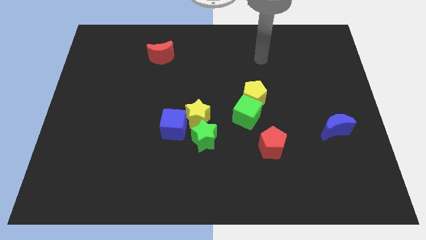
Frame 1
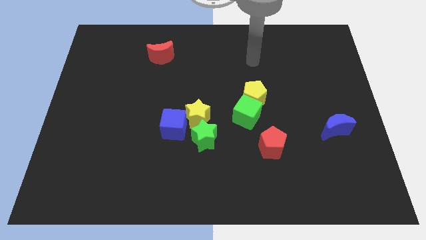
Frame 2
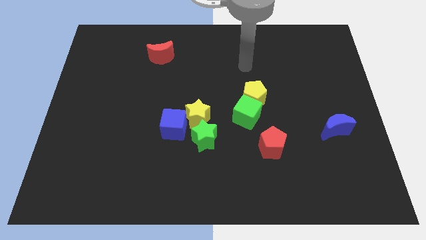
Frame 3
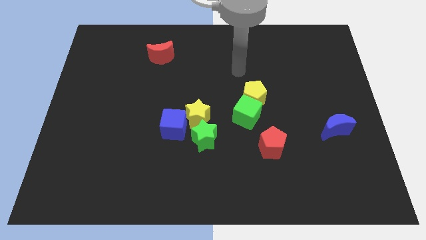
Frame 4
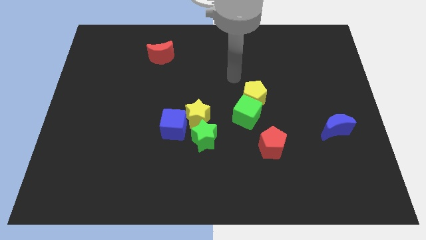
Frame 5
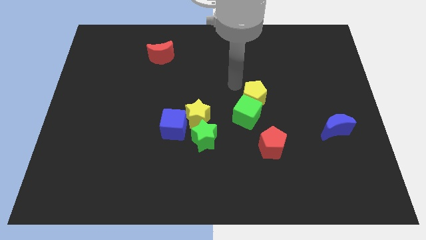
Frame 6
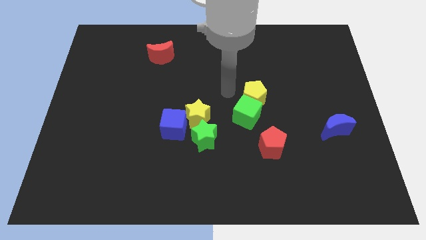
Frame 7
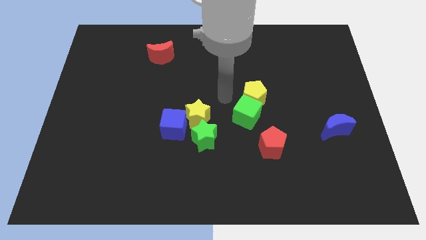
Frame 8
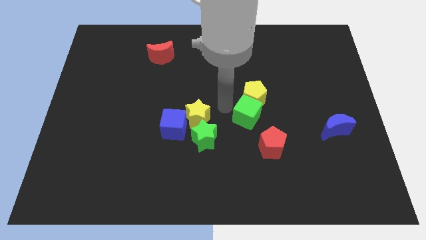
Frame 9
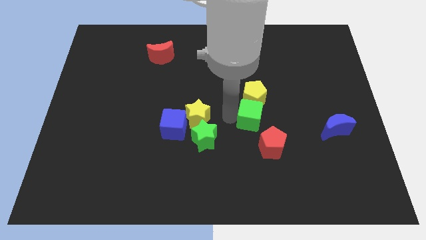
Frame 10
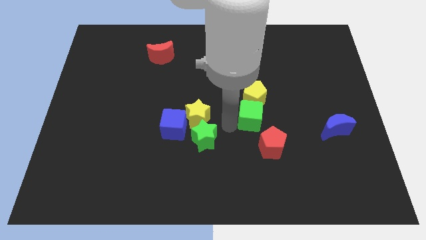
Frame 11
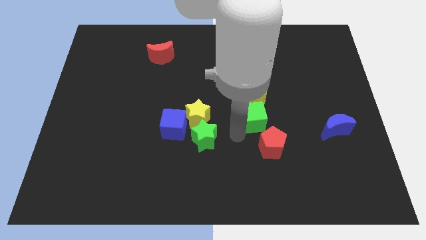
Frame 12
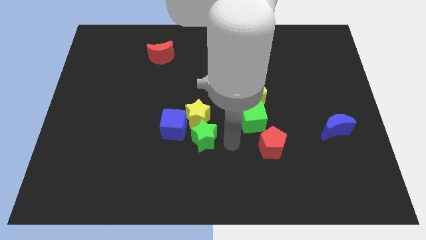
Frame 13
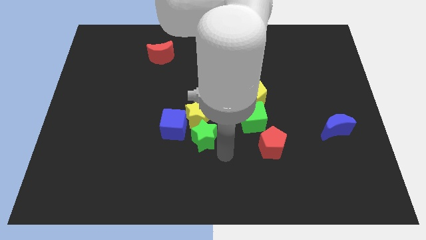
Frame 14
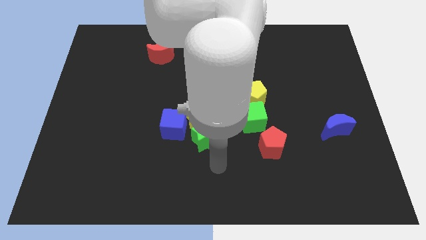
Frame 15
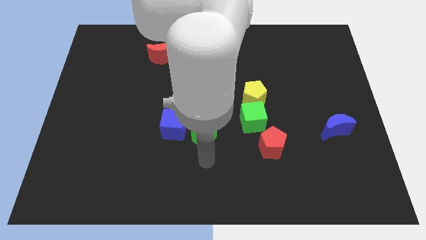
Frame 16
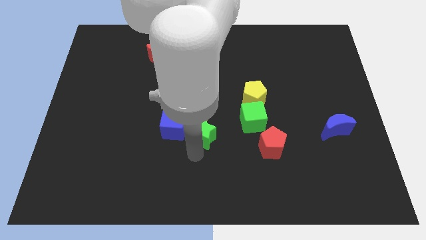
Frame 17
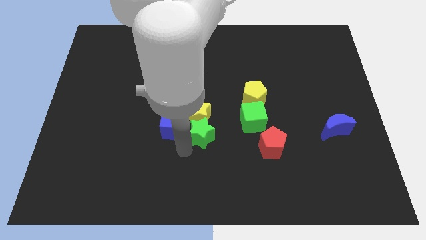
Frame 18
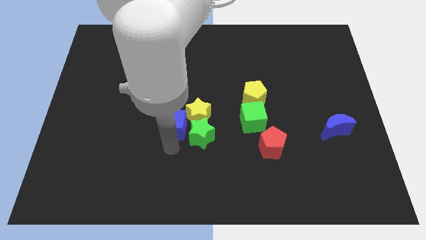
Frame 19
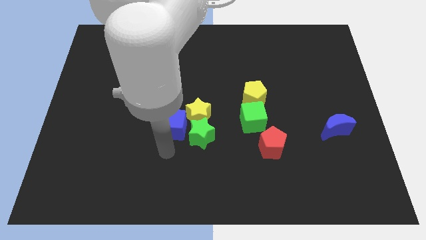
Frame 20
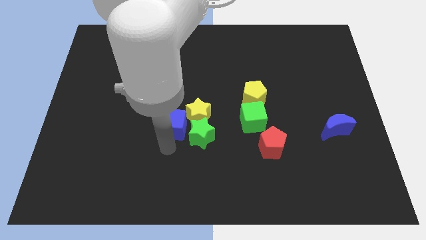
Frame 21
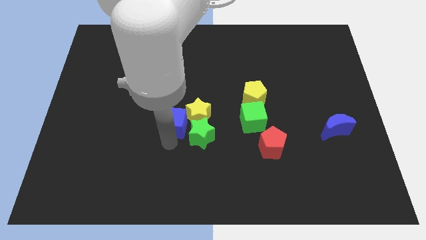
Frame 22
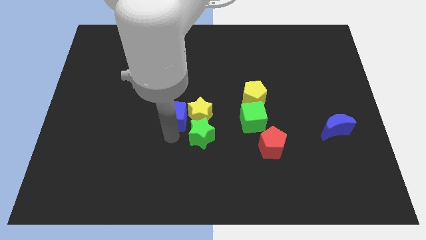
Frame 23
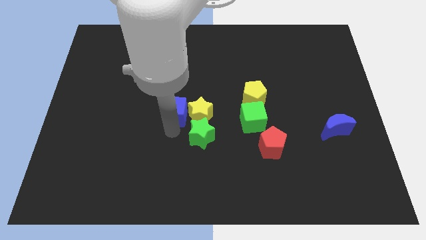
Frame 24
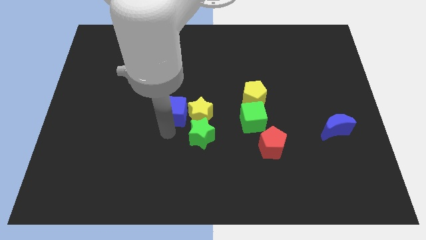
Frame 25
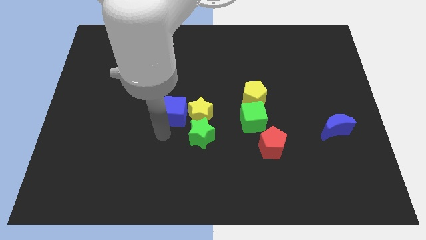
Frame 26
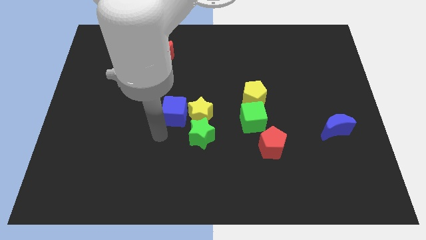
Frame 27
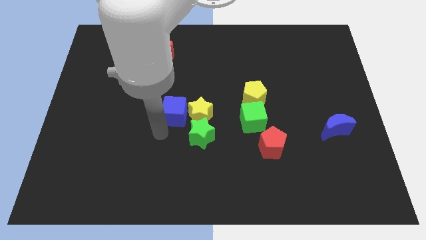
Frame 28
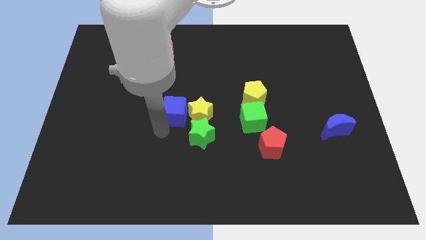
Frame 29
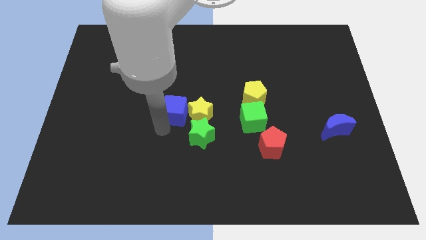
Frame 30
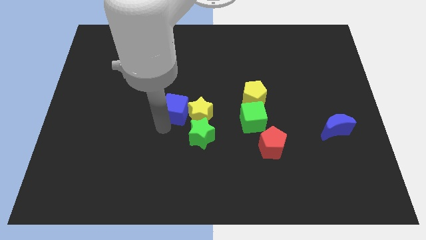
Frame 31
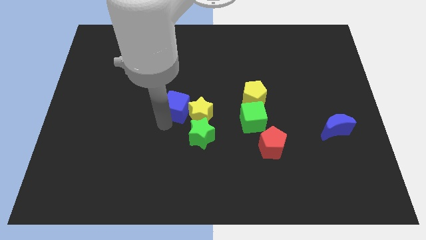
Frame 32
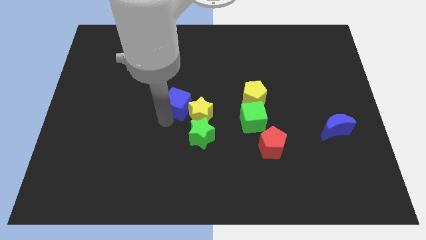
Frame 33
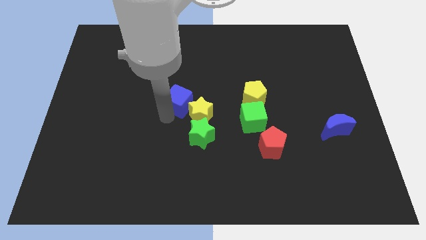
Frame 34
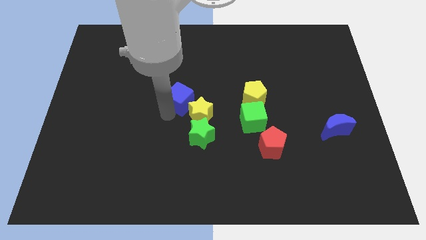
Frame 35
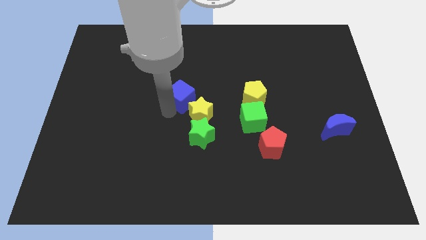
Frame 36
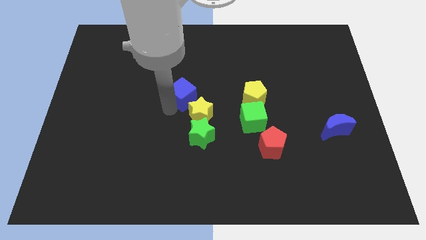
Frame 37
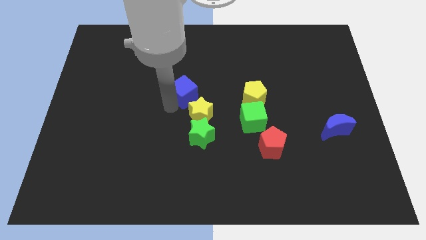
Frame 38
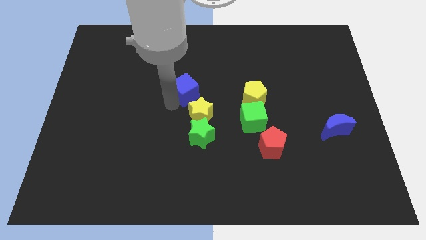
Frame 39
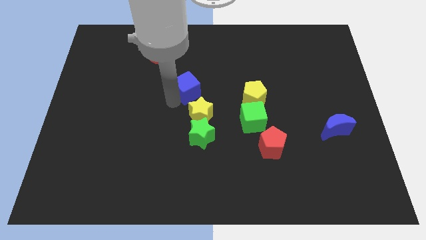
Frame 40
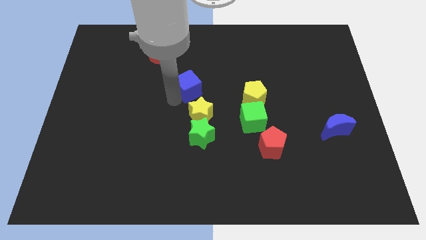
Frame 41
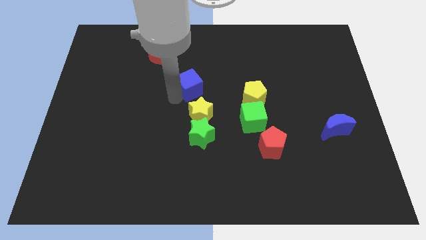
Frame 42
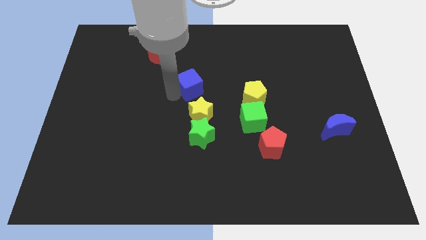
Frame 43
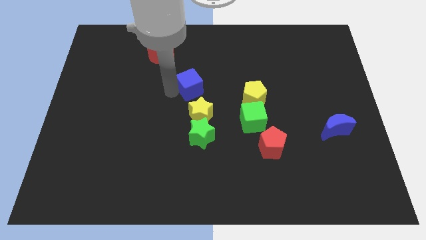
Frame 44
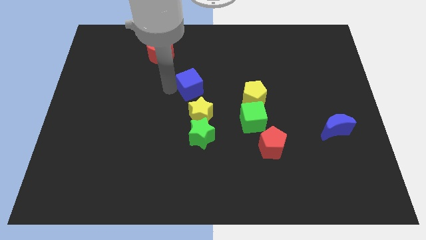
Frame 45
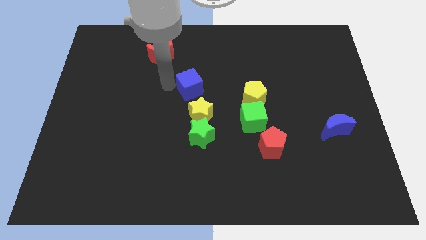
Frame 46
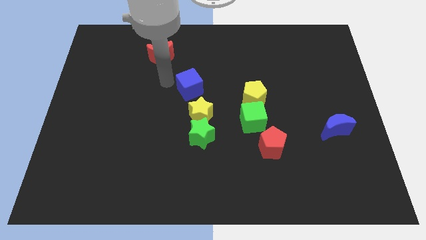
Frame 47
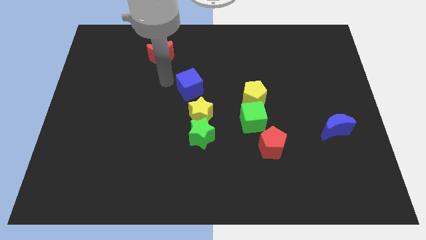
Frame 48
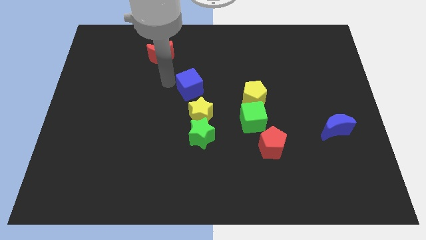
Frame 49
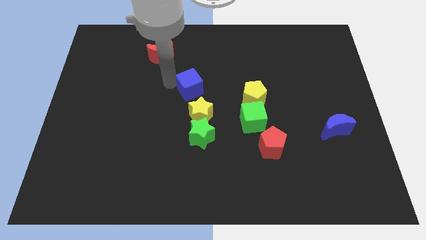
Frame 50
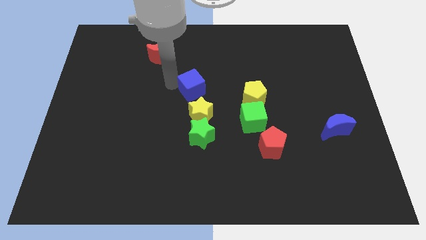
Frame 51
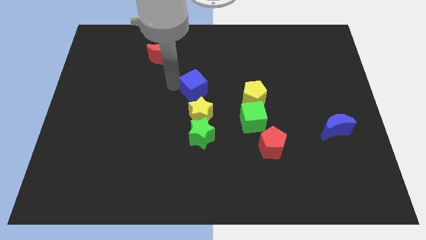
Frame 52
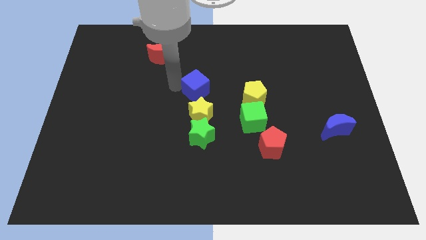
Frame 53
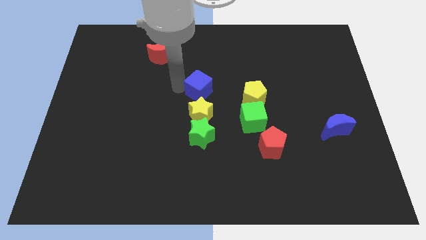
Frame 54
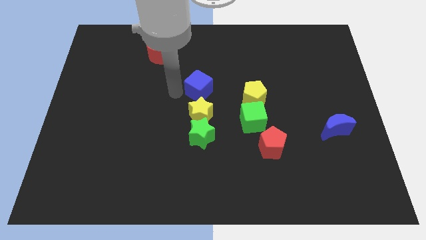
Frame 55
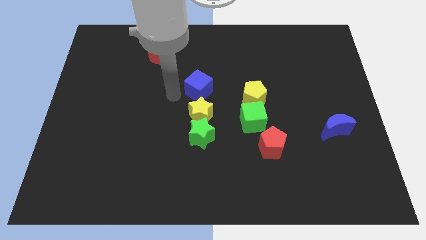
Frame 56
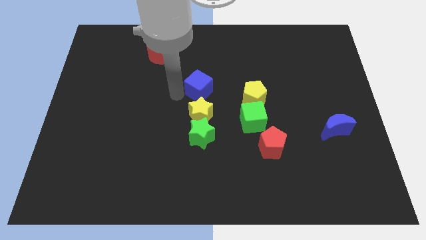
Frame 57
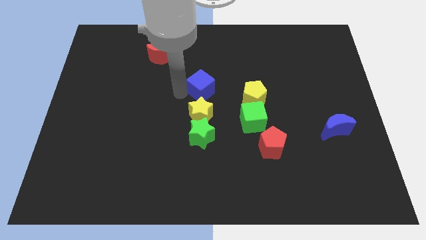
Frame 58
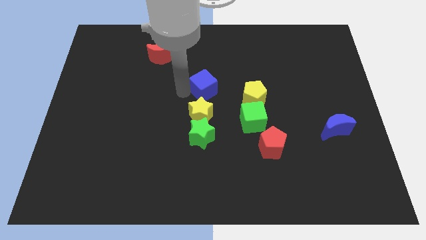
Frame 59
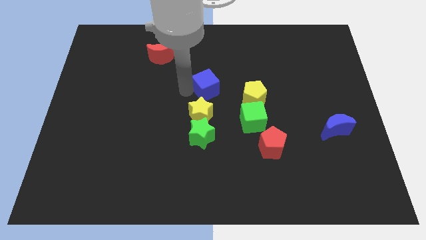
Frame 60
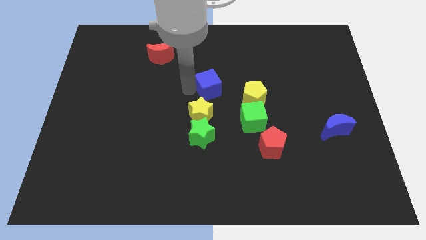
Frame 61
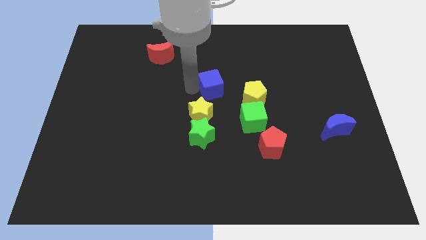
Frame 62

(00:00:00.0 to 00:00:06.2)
push the blue cube to the top left of the yellow pentagon

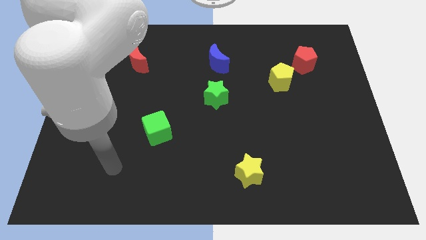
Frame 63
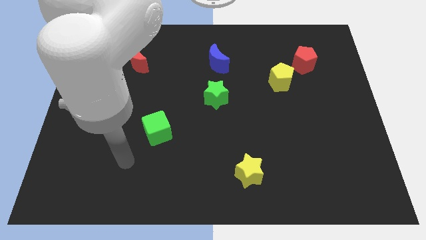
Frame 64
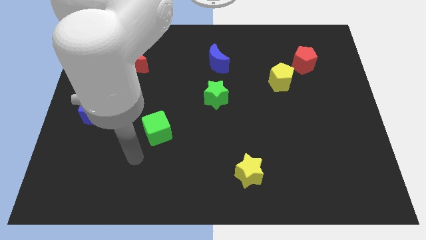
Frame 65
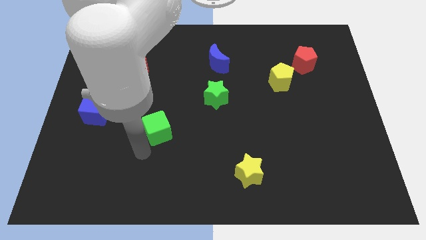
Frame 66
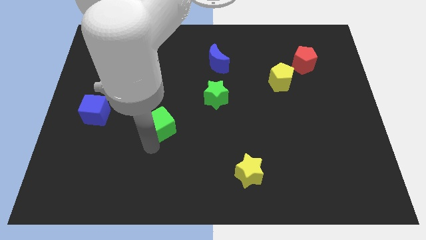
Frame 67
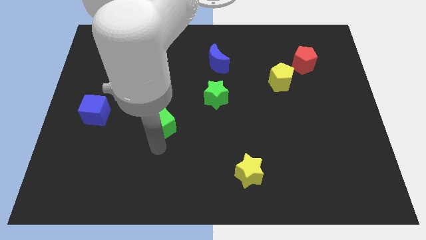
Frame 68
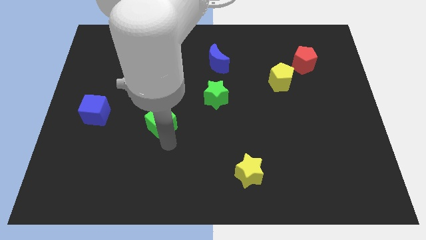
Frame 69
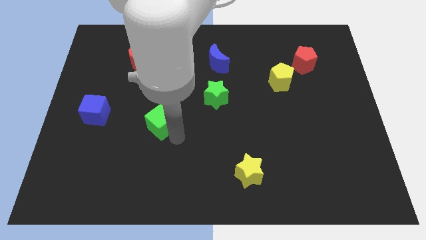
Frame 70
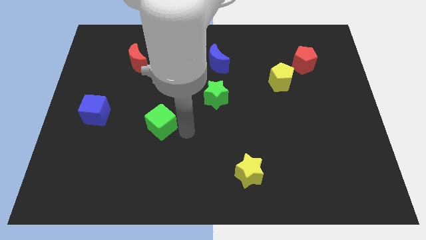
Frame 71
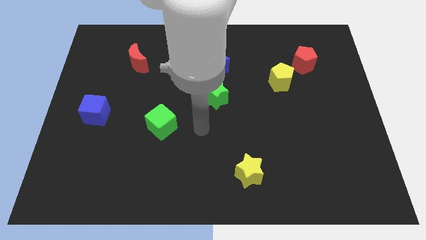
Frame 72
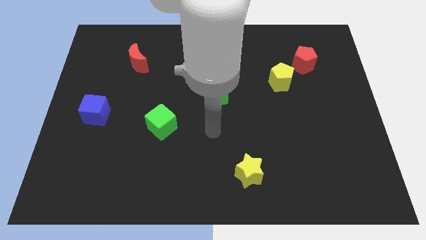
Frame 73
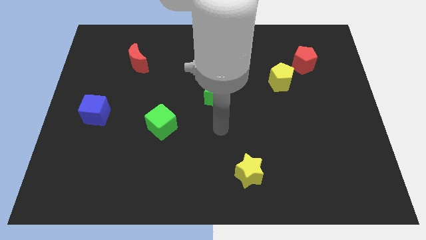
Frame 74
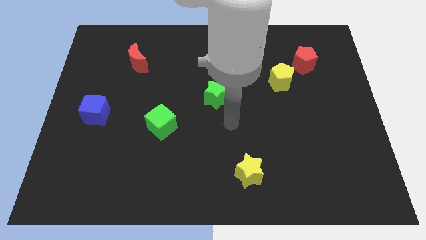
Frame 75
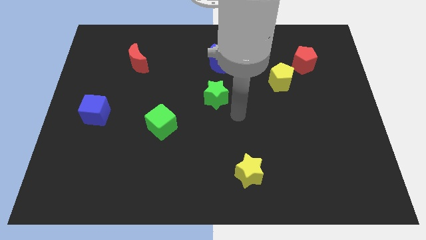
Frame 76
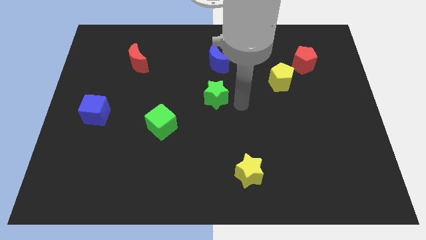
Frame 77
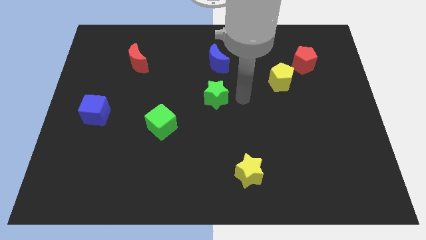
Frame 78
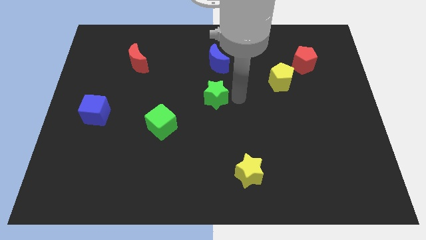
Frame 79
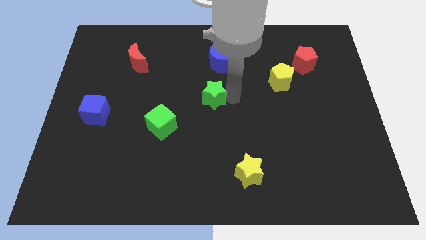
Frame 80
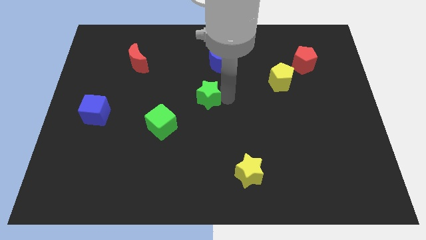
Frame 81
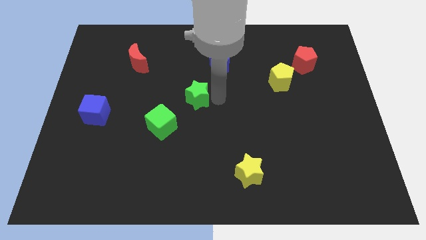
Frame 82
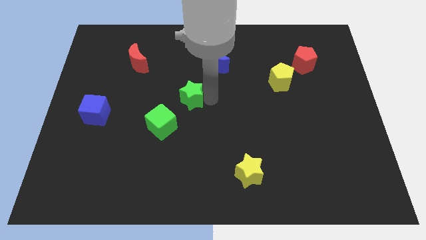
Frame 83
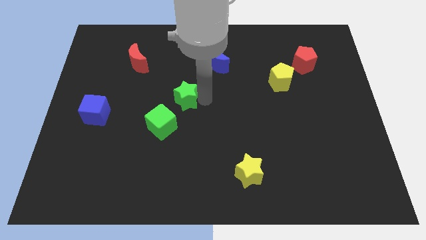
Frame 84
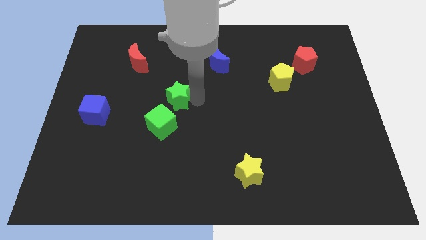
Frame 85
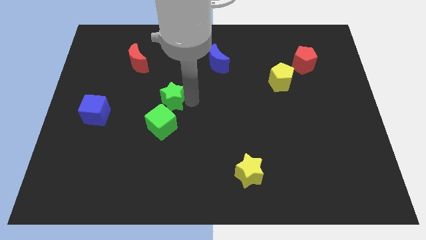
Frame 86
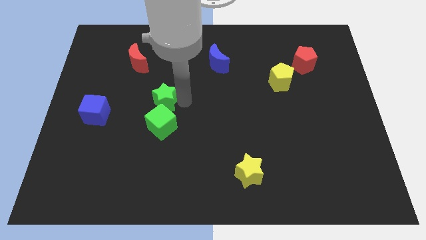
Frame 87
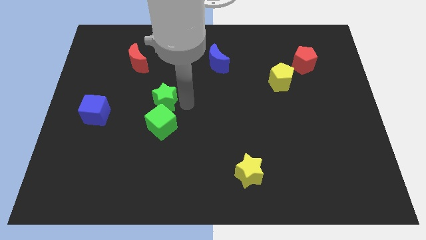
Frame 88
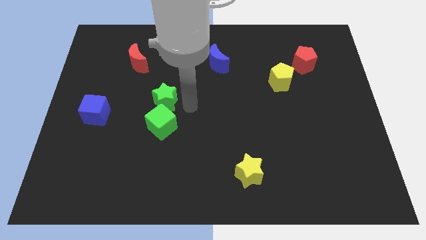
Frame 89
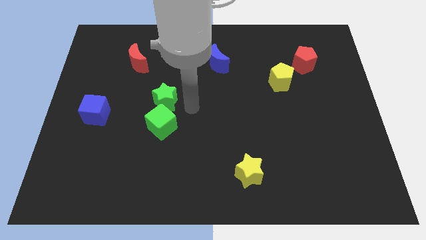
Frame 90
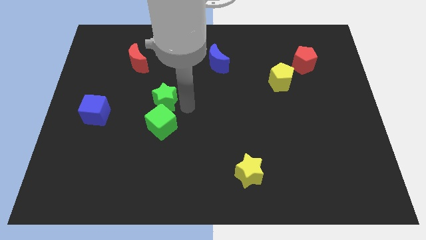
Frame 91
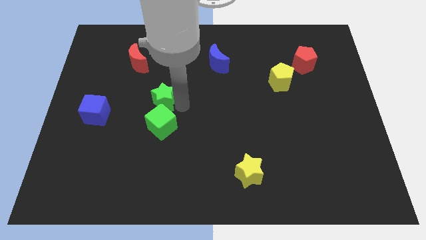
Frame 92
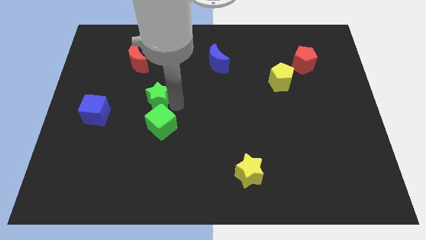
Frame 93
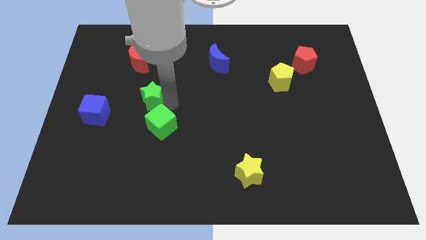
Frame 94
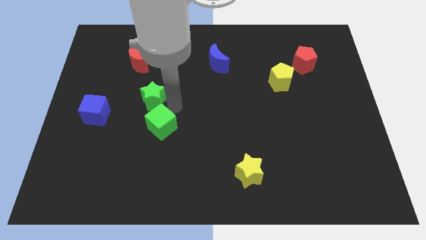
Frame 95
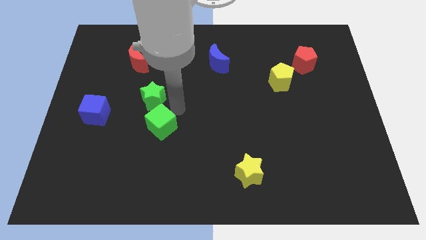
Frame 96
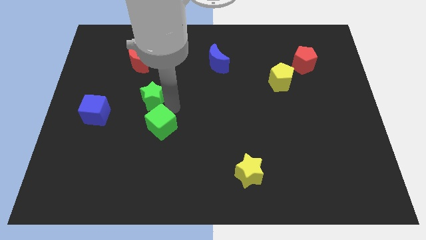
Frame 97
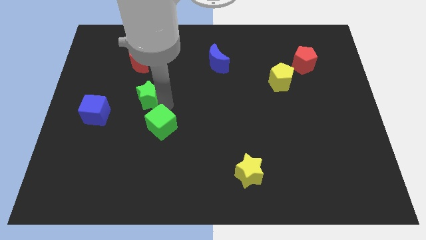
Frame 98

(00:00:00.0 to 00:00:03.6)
push the green star below the red moon
